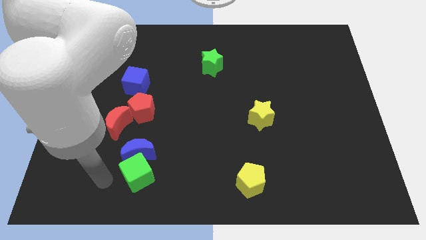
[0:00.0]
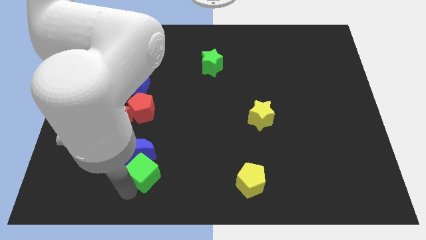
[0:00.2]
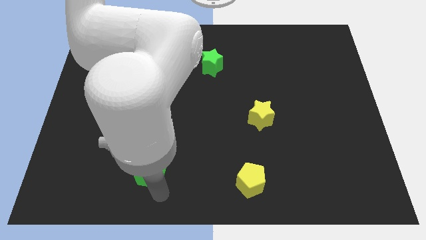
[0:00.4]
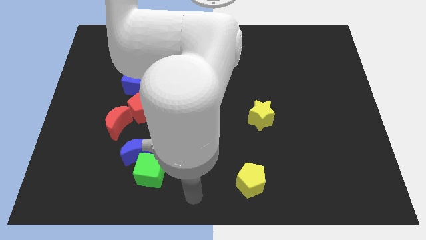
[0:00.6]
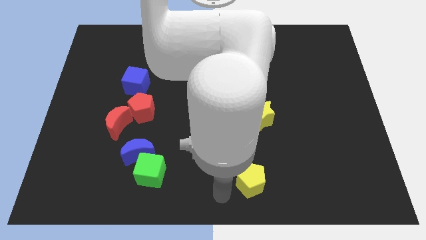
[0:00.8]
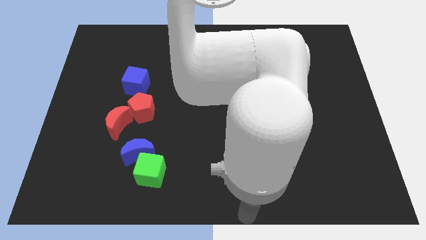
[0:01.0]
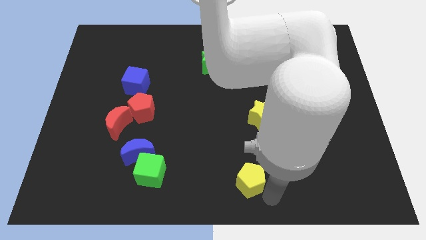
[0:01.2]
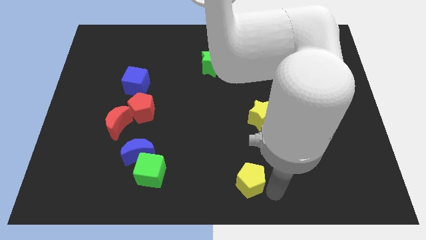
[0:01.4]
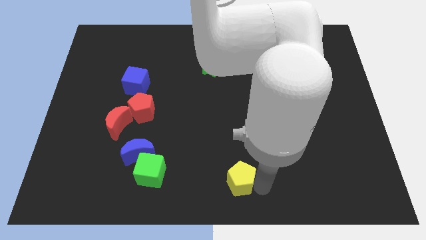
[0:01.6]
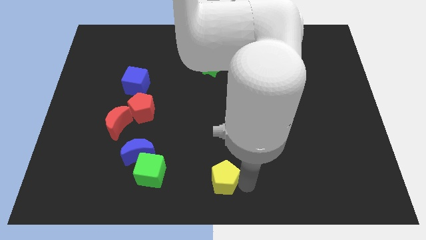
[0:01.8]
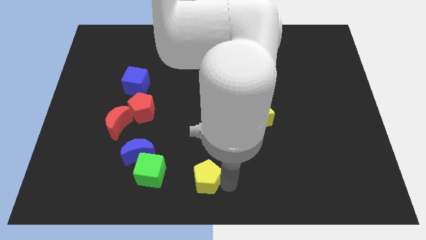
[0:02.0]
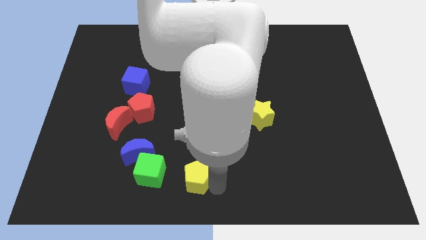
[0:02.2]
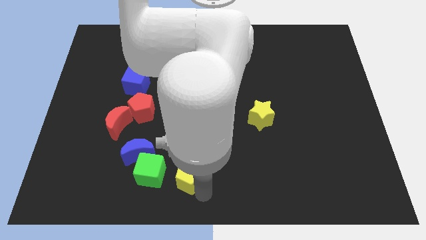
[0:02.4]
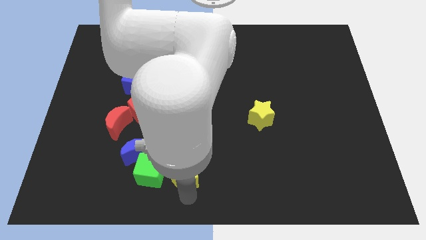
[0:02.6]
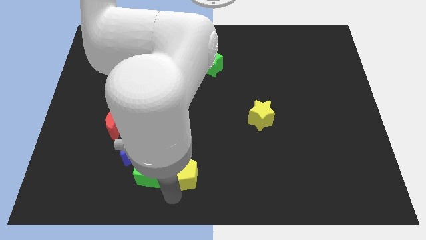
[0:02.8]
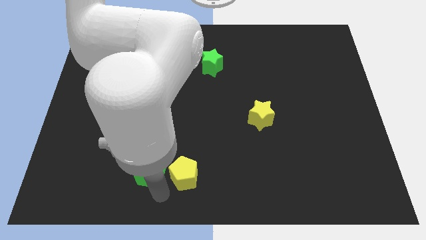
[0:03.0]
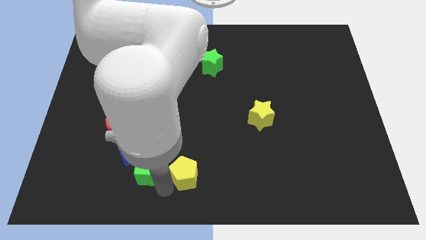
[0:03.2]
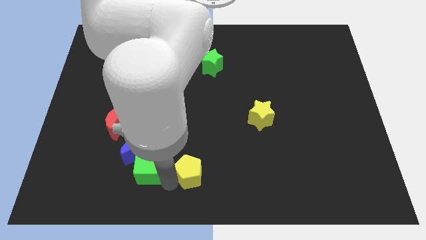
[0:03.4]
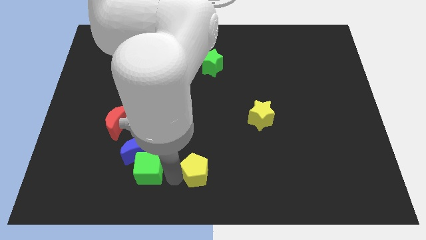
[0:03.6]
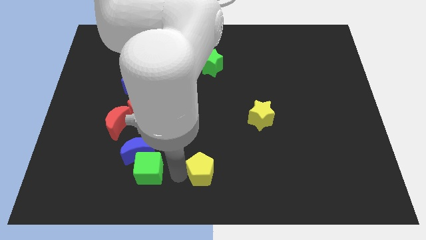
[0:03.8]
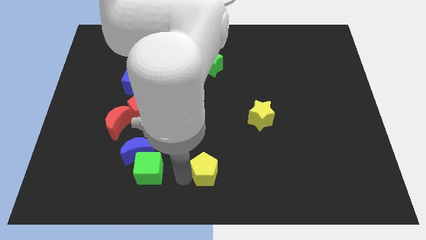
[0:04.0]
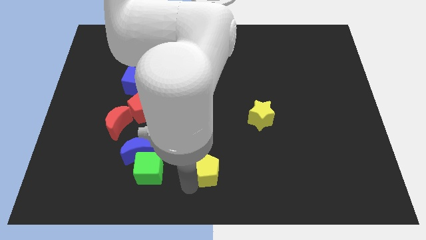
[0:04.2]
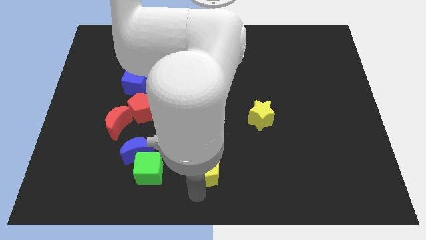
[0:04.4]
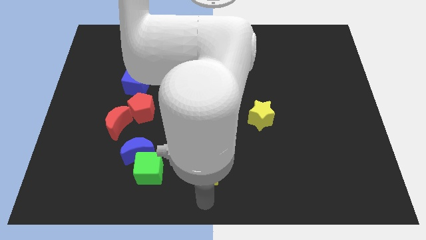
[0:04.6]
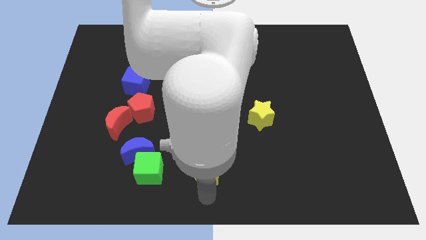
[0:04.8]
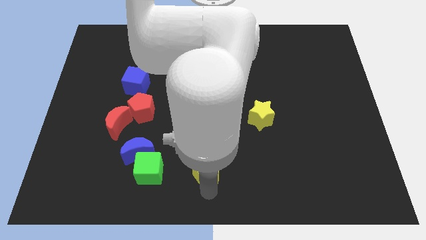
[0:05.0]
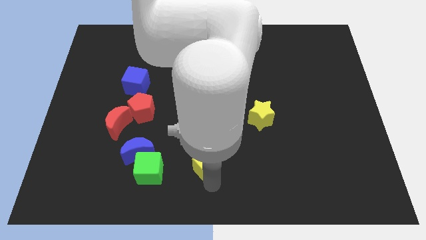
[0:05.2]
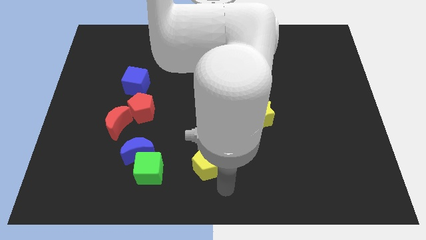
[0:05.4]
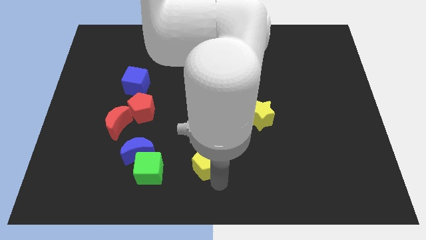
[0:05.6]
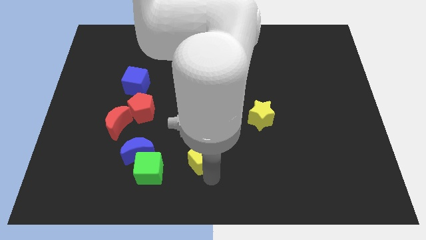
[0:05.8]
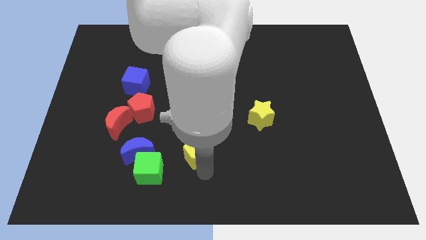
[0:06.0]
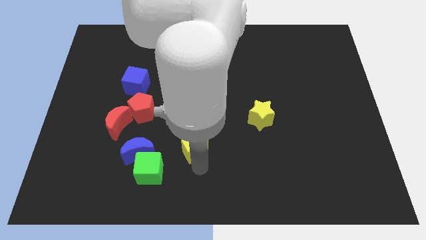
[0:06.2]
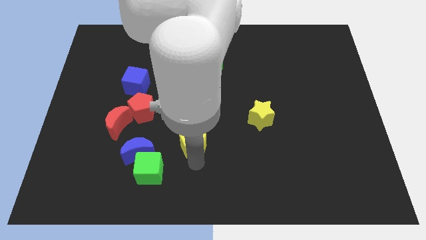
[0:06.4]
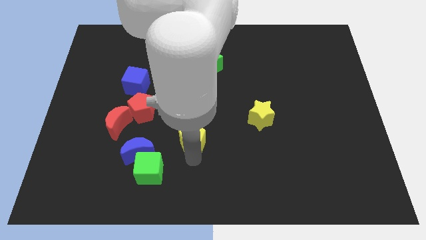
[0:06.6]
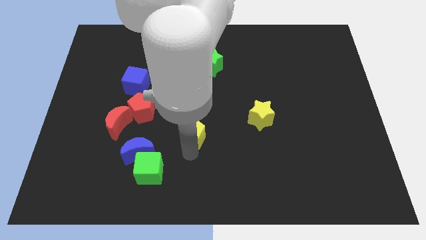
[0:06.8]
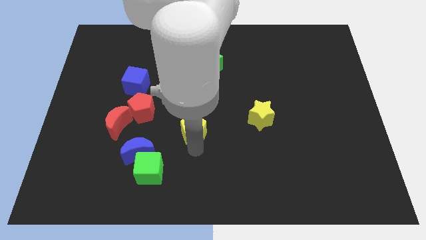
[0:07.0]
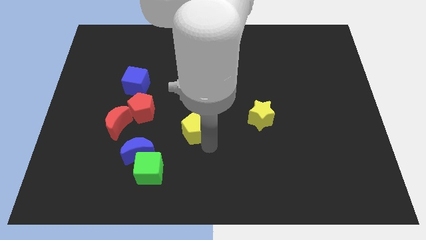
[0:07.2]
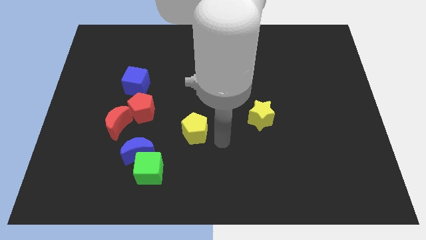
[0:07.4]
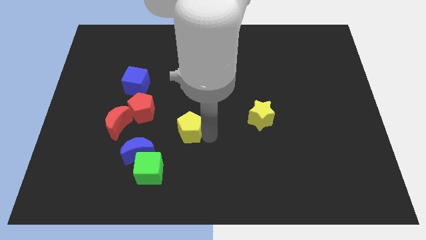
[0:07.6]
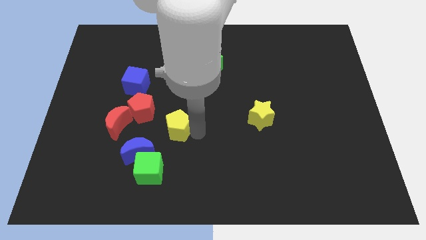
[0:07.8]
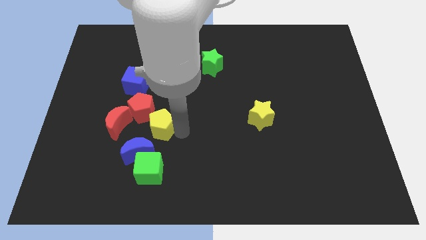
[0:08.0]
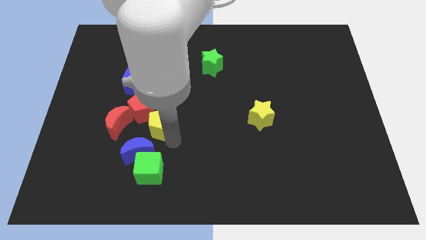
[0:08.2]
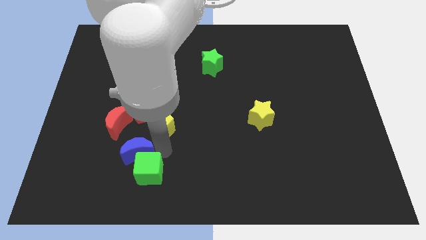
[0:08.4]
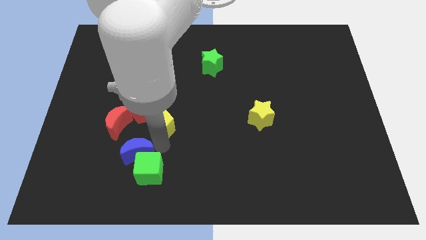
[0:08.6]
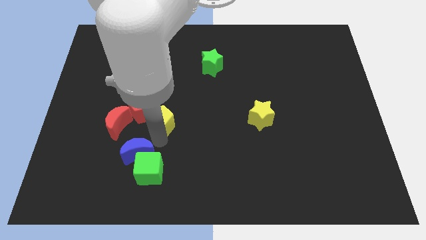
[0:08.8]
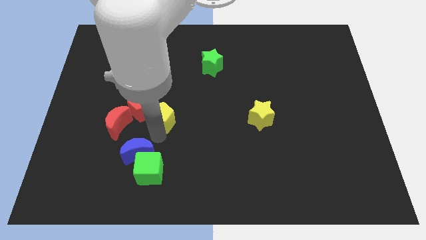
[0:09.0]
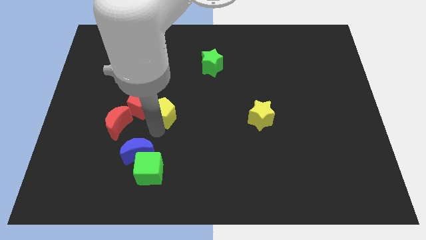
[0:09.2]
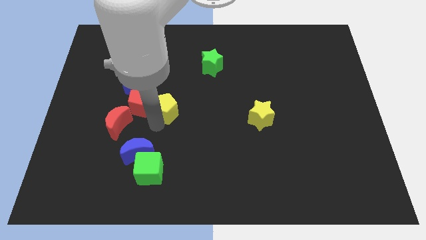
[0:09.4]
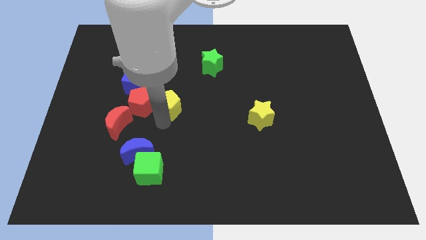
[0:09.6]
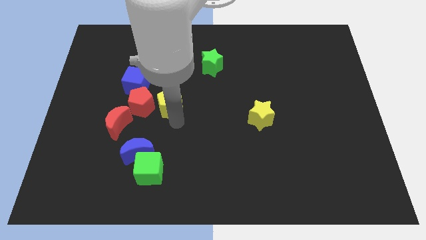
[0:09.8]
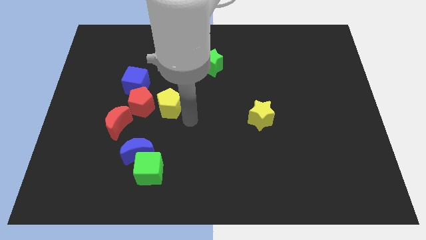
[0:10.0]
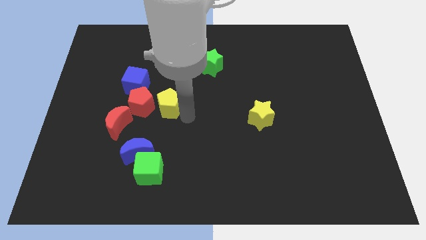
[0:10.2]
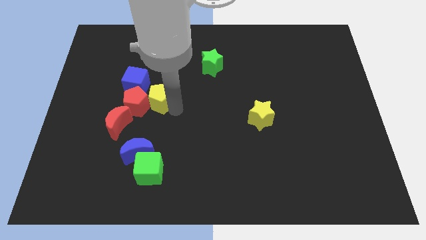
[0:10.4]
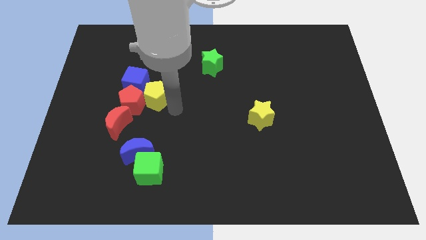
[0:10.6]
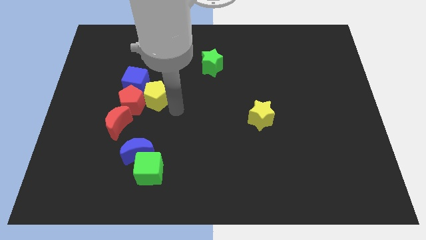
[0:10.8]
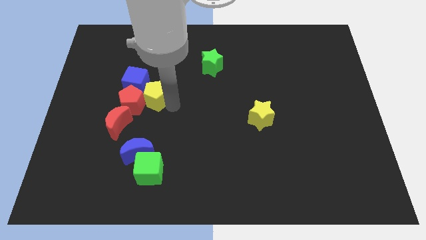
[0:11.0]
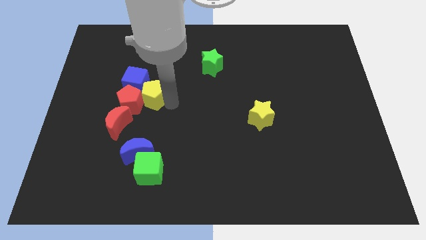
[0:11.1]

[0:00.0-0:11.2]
put the yellow pentagon towards the blue cube
